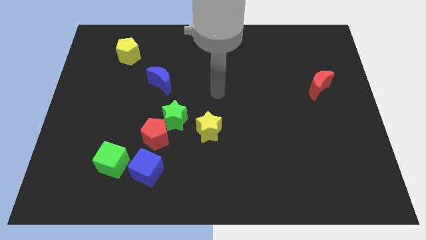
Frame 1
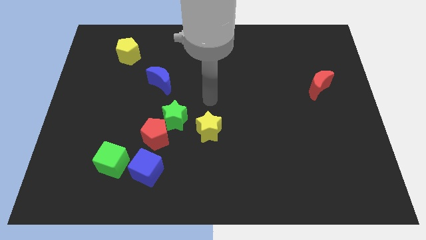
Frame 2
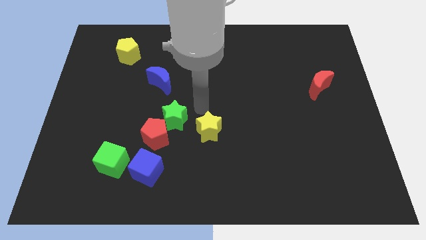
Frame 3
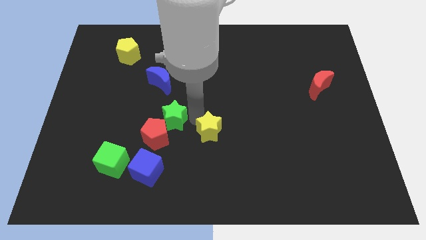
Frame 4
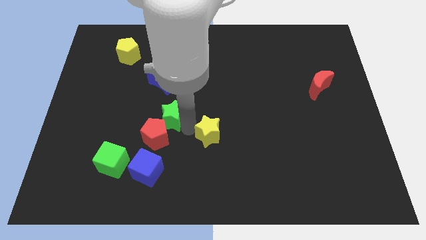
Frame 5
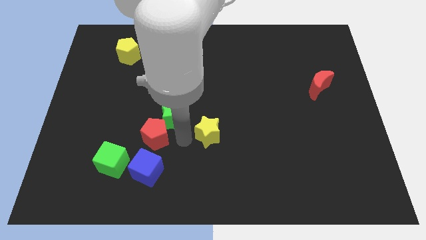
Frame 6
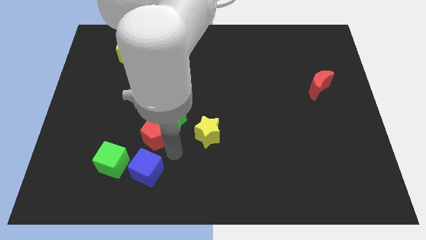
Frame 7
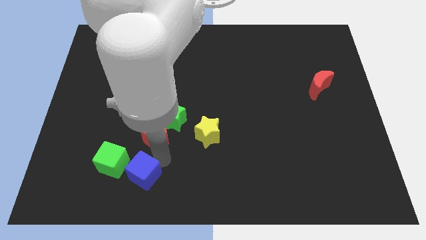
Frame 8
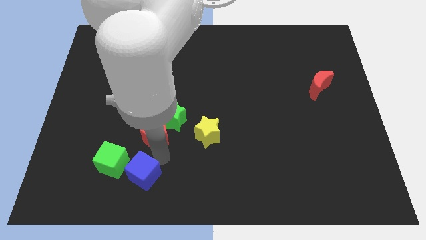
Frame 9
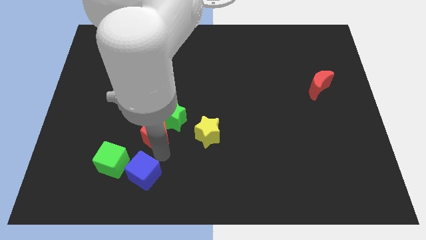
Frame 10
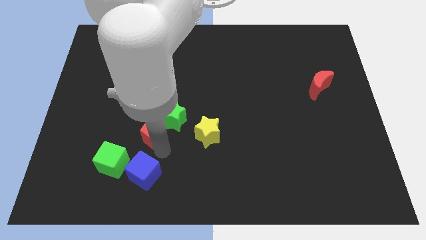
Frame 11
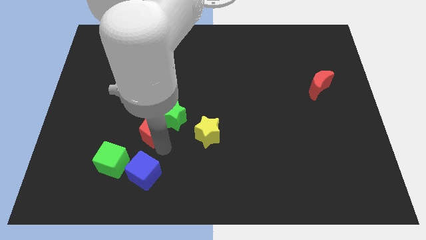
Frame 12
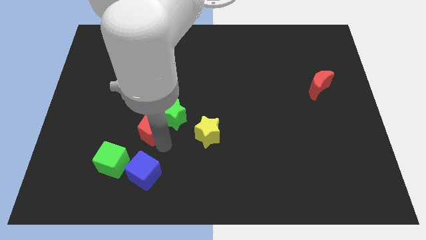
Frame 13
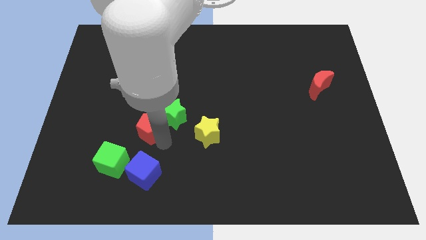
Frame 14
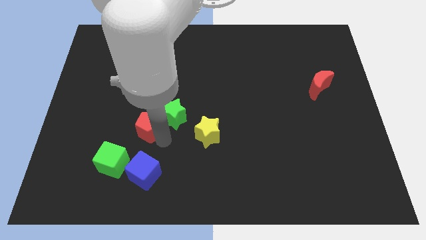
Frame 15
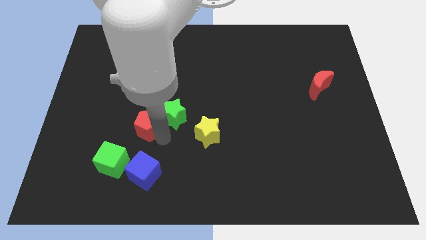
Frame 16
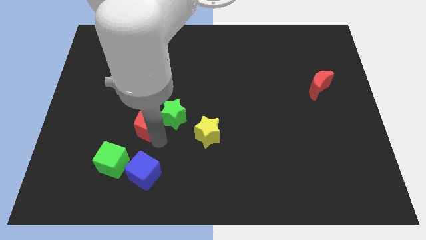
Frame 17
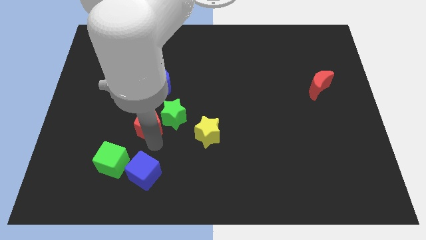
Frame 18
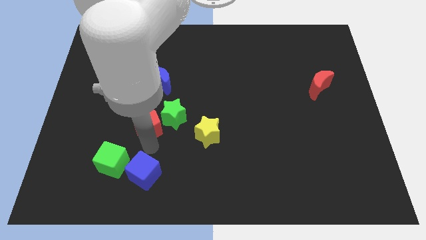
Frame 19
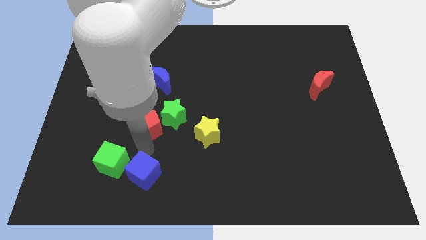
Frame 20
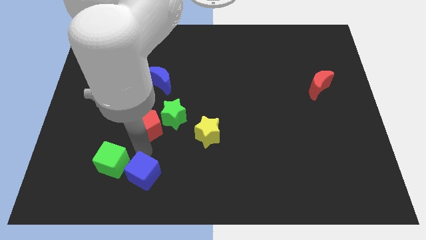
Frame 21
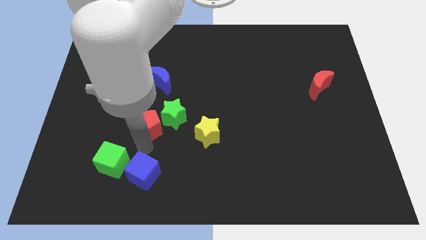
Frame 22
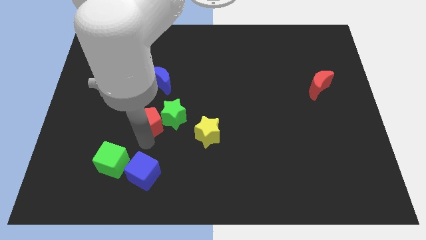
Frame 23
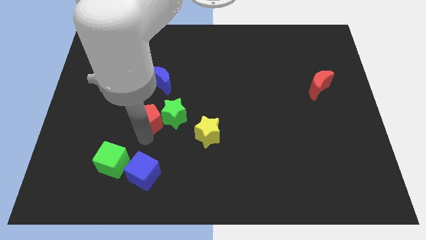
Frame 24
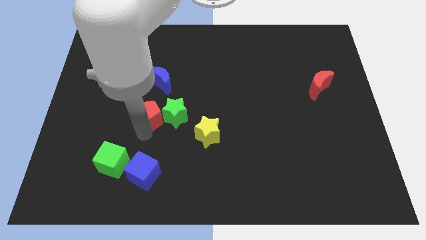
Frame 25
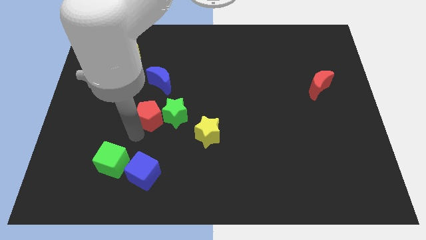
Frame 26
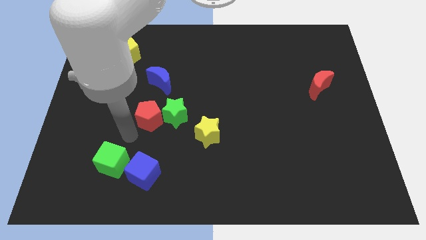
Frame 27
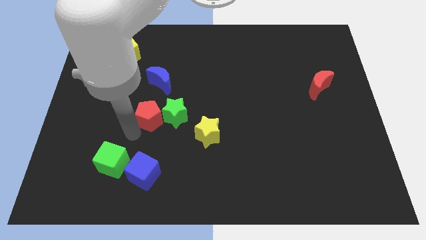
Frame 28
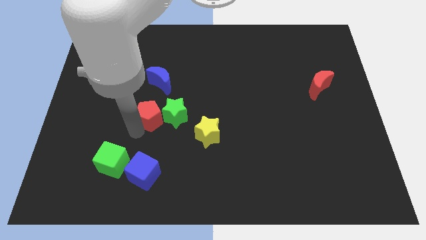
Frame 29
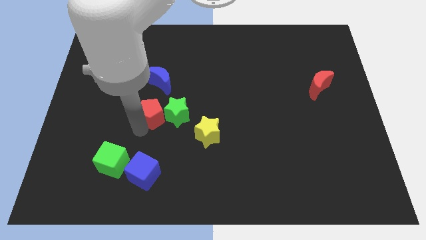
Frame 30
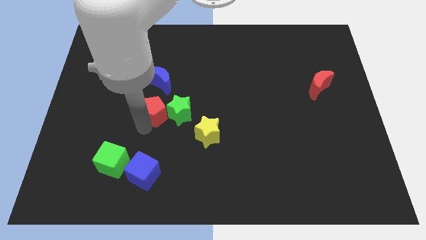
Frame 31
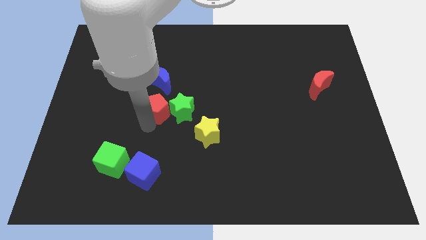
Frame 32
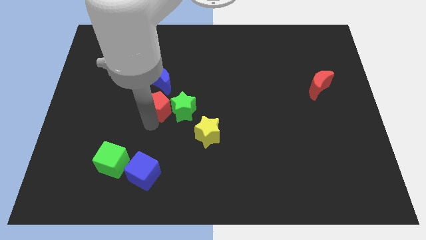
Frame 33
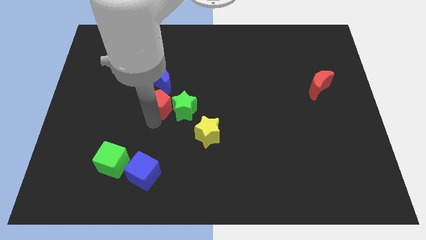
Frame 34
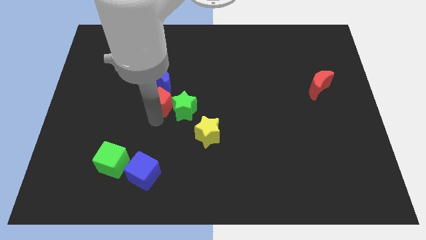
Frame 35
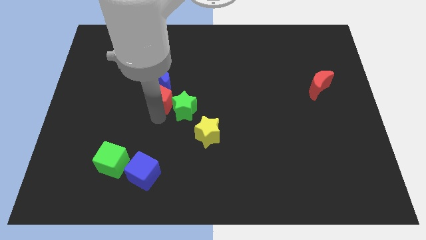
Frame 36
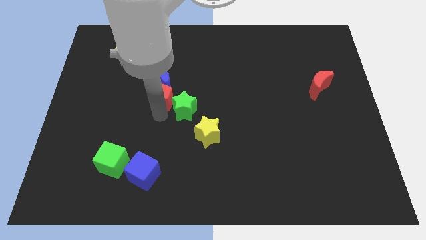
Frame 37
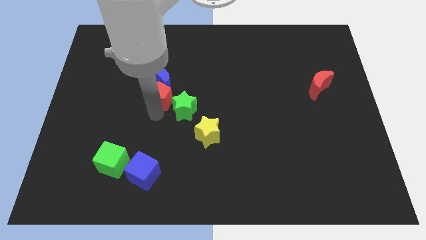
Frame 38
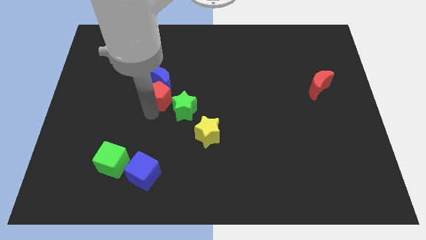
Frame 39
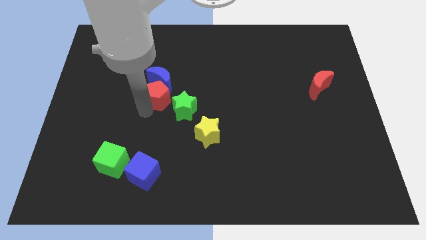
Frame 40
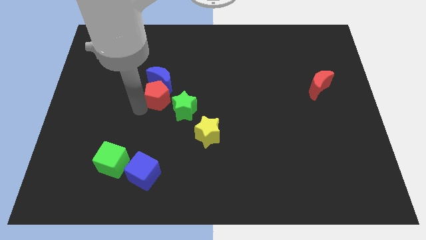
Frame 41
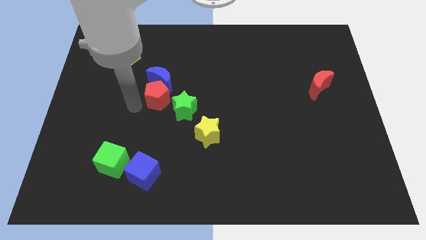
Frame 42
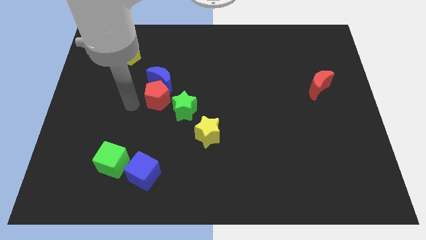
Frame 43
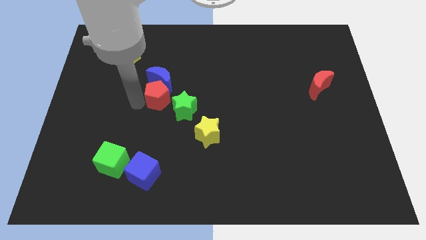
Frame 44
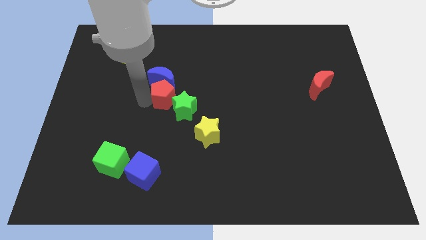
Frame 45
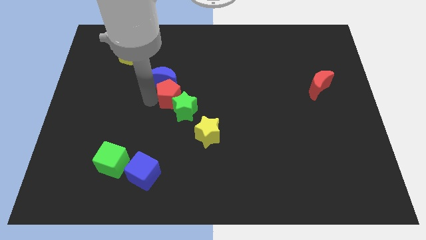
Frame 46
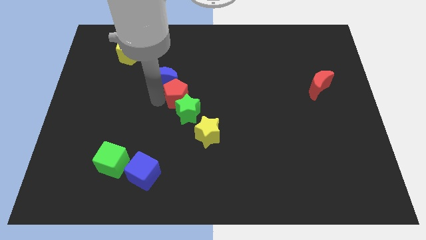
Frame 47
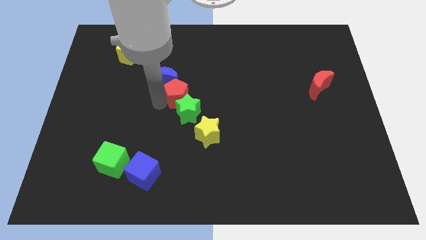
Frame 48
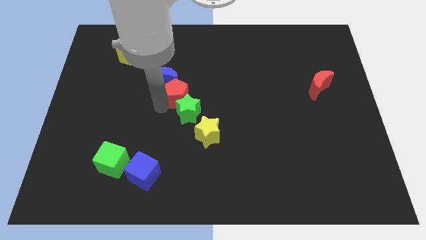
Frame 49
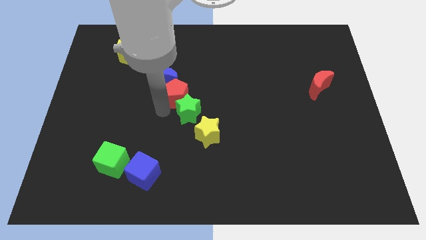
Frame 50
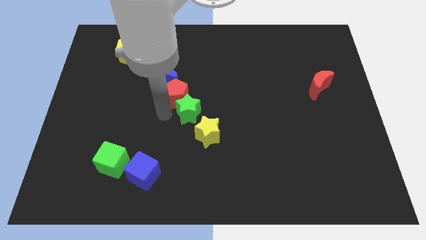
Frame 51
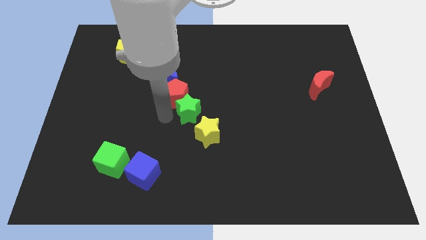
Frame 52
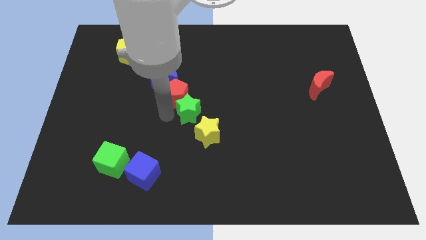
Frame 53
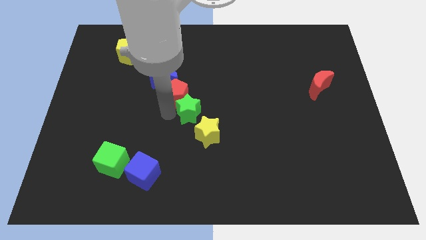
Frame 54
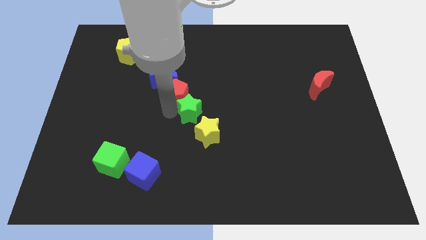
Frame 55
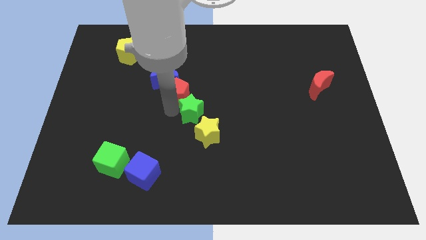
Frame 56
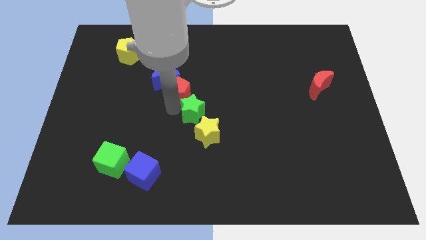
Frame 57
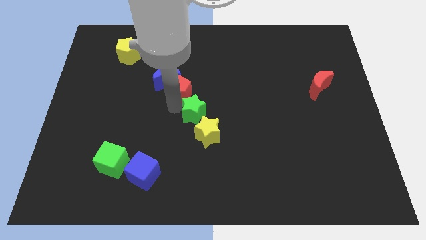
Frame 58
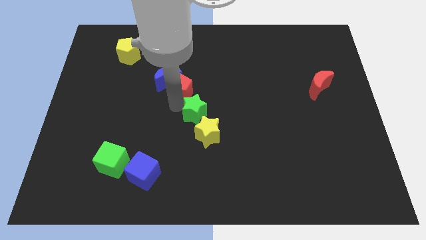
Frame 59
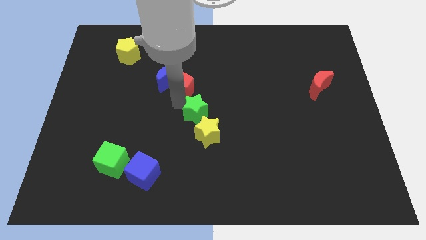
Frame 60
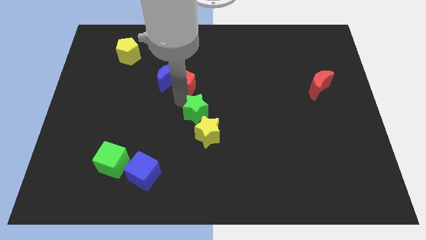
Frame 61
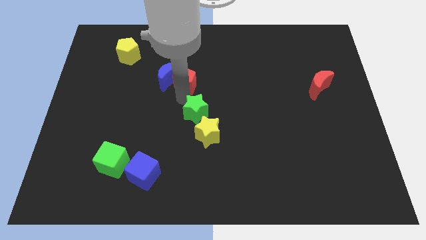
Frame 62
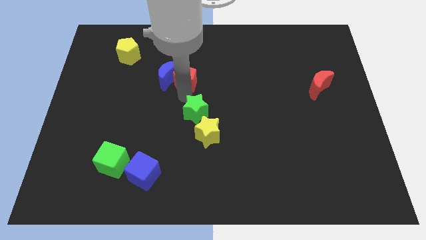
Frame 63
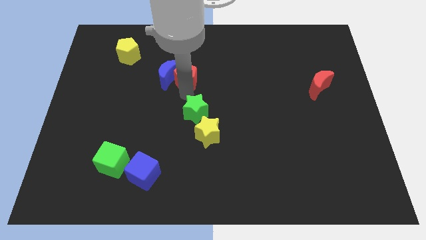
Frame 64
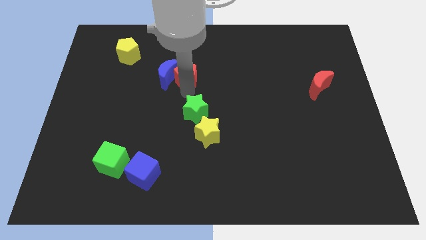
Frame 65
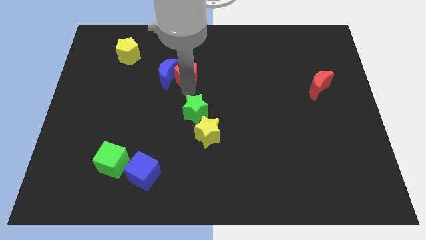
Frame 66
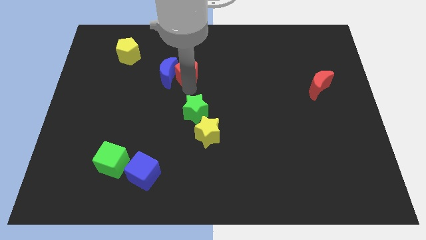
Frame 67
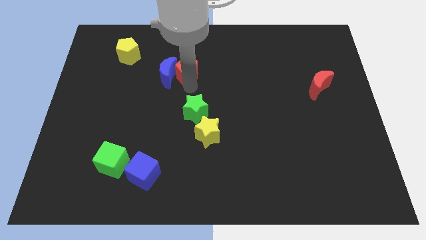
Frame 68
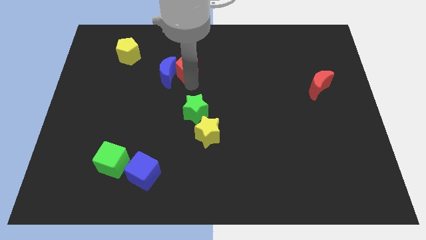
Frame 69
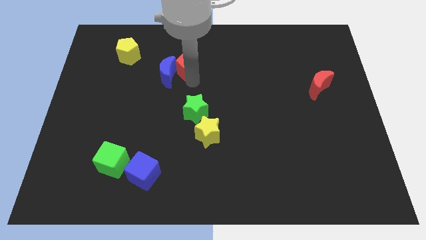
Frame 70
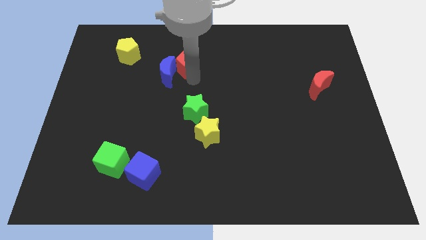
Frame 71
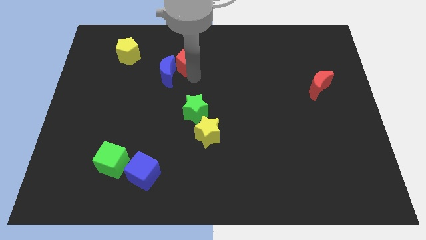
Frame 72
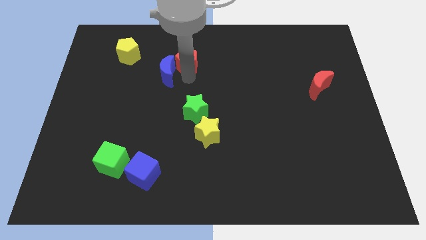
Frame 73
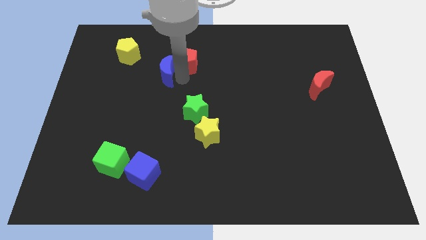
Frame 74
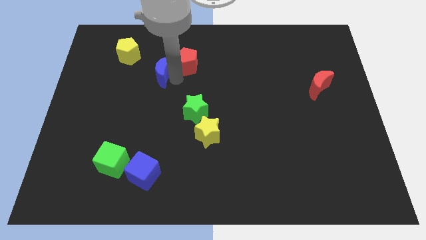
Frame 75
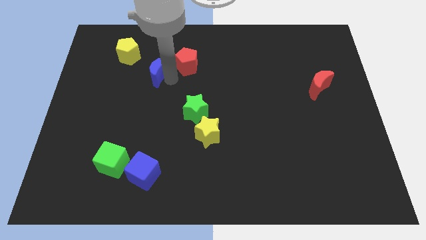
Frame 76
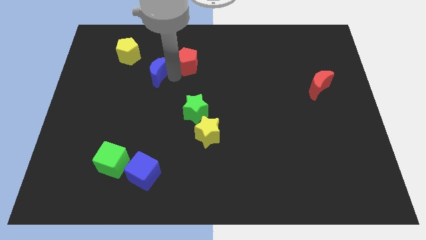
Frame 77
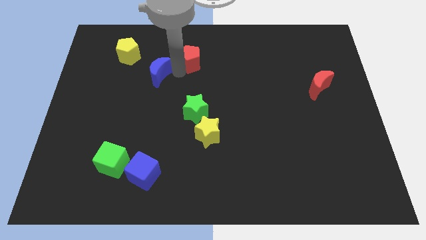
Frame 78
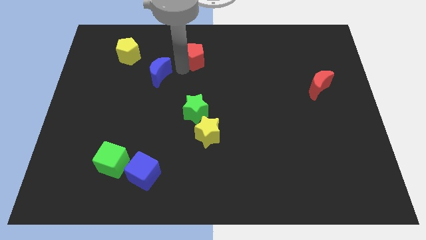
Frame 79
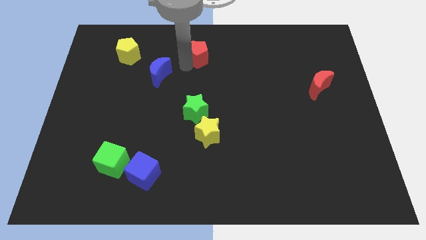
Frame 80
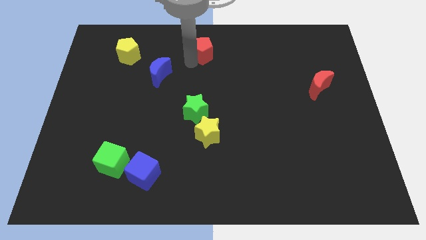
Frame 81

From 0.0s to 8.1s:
slide the red pentagon to the towards your base
